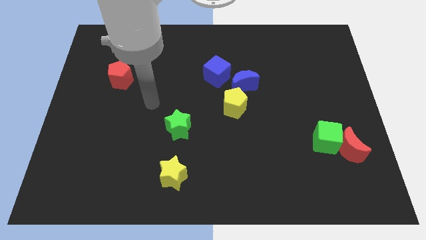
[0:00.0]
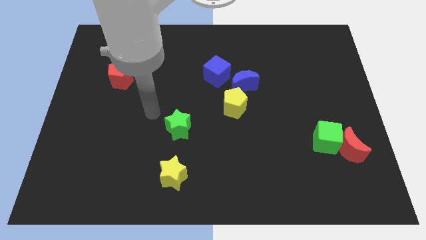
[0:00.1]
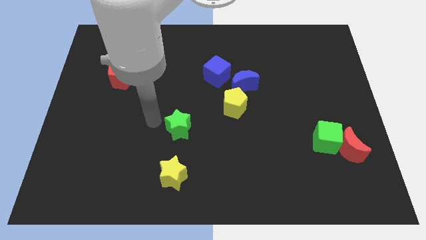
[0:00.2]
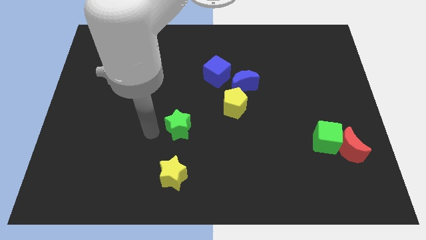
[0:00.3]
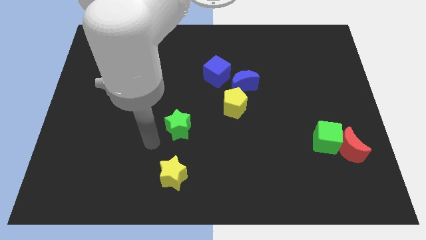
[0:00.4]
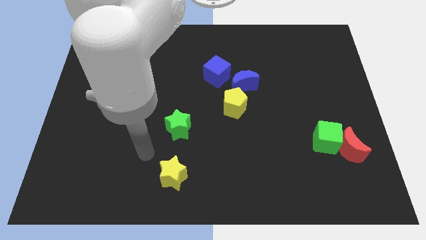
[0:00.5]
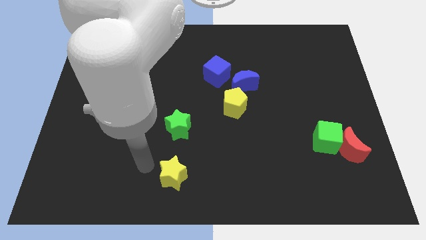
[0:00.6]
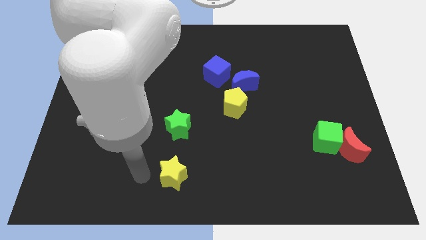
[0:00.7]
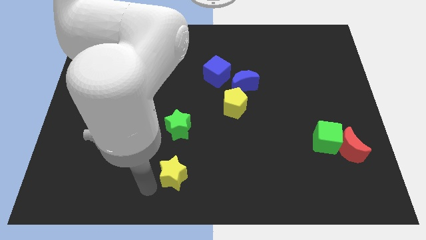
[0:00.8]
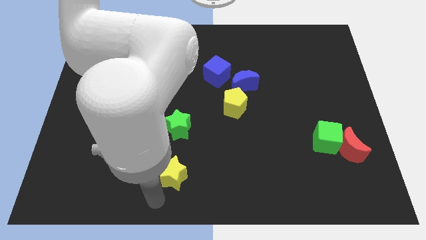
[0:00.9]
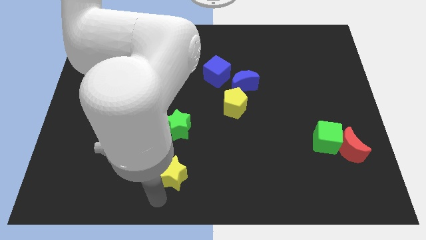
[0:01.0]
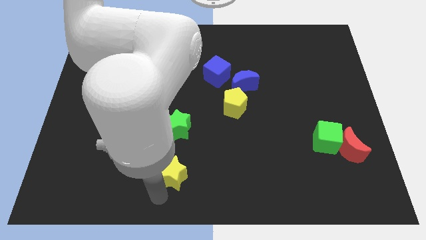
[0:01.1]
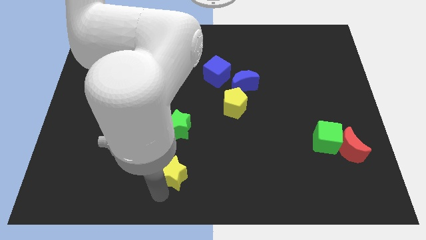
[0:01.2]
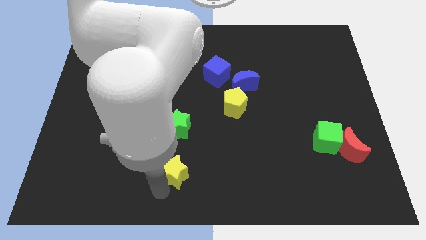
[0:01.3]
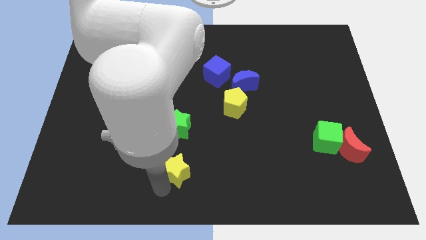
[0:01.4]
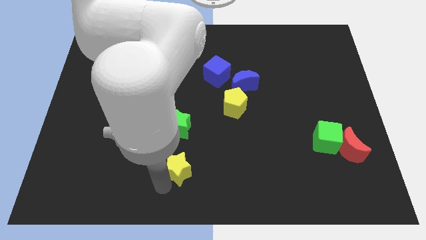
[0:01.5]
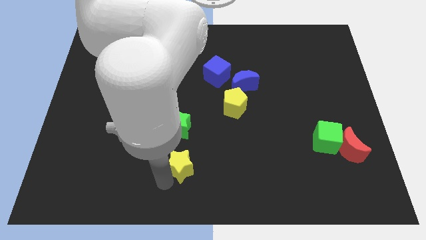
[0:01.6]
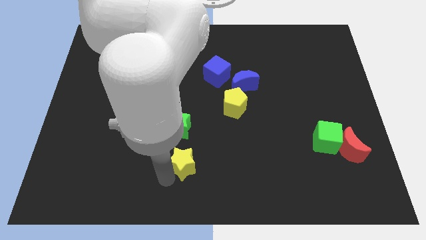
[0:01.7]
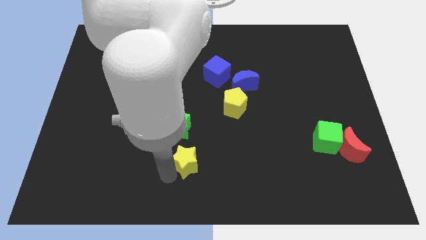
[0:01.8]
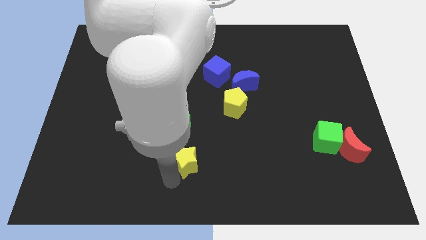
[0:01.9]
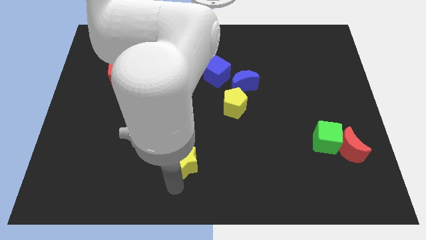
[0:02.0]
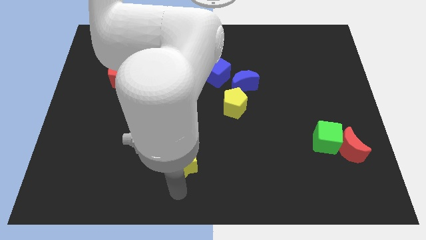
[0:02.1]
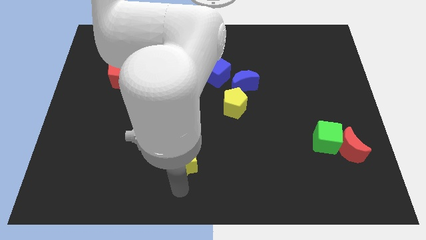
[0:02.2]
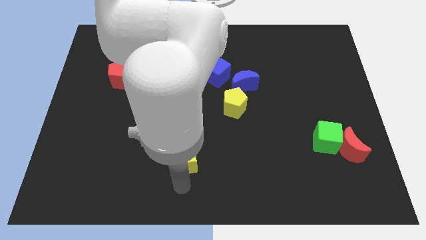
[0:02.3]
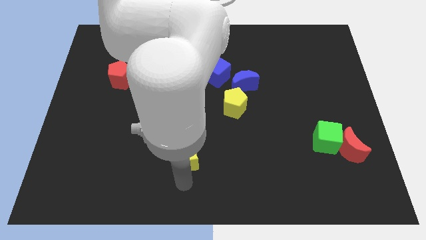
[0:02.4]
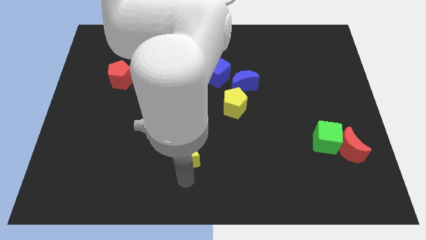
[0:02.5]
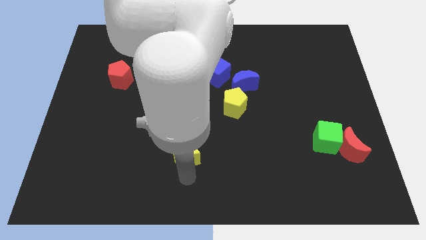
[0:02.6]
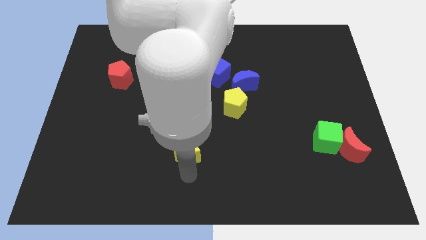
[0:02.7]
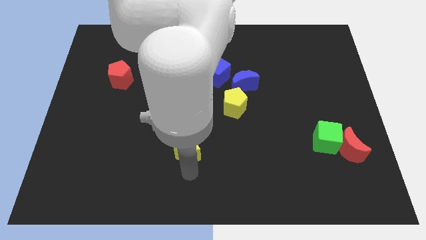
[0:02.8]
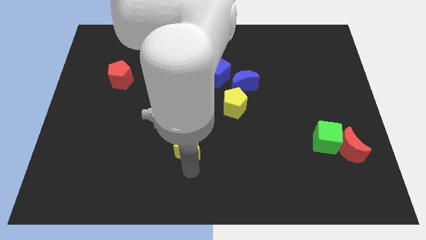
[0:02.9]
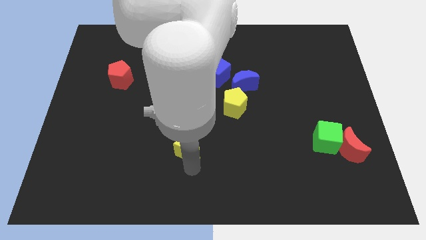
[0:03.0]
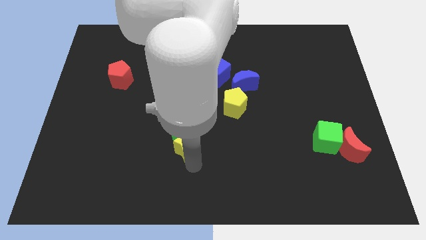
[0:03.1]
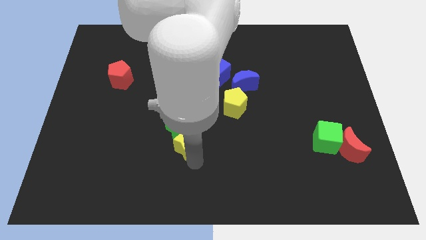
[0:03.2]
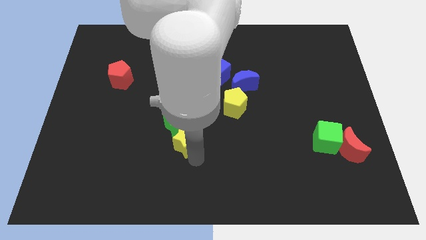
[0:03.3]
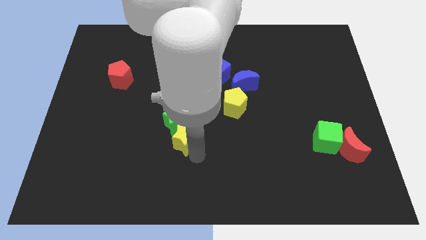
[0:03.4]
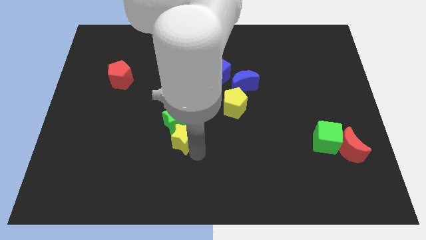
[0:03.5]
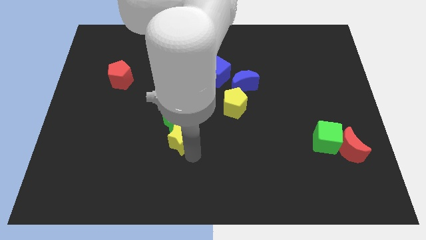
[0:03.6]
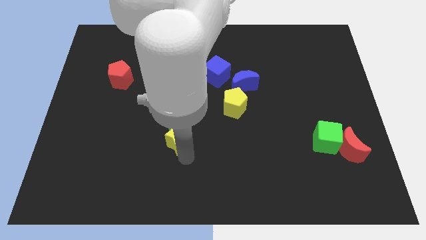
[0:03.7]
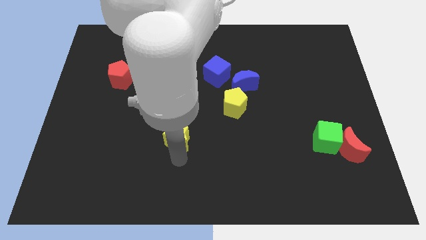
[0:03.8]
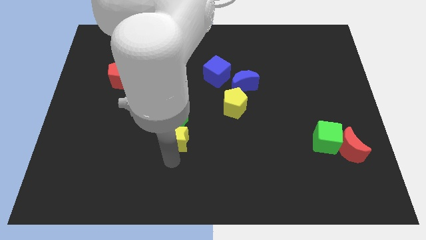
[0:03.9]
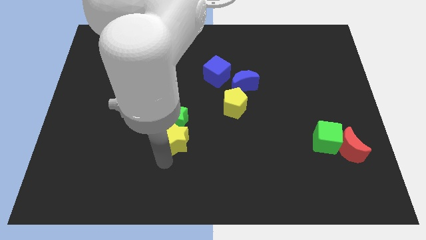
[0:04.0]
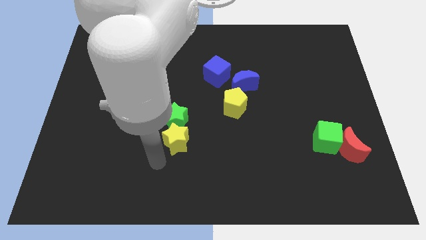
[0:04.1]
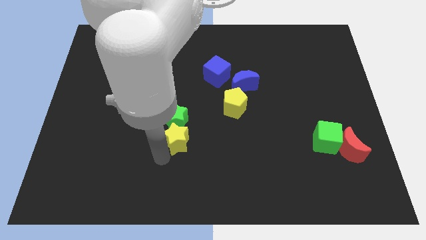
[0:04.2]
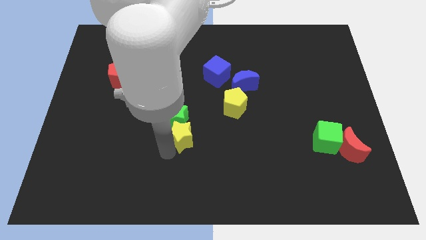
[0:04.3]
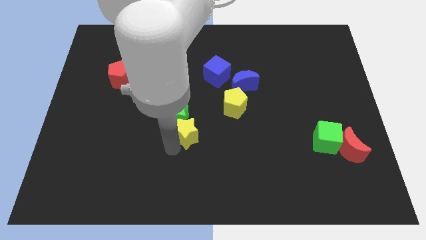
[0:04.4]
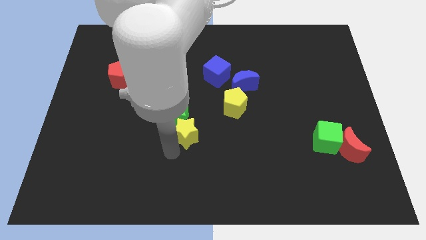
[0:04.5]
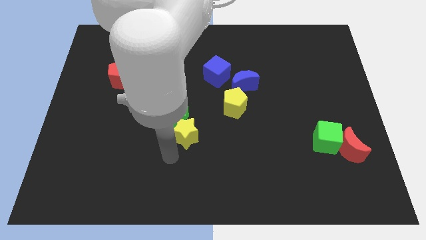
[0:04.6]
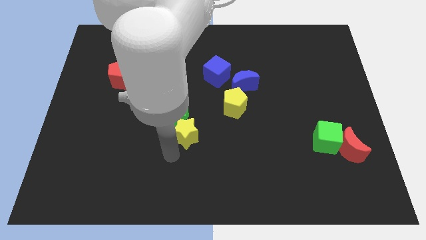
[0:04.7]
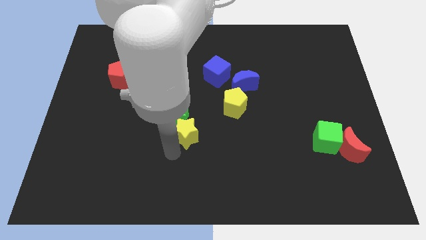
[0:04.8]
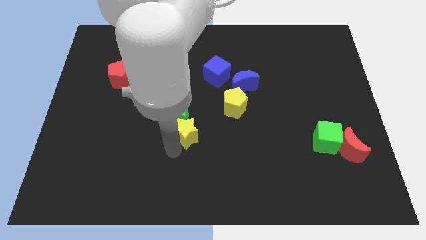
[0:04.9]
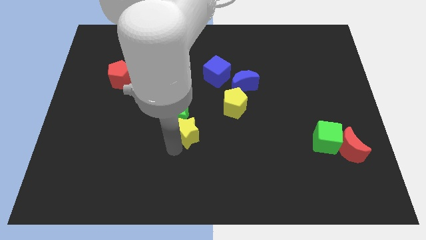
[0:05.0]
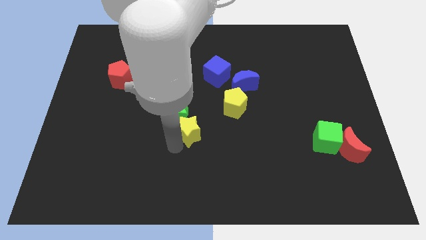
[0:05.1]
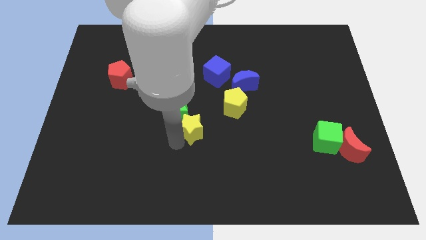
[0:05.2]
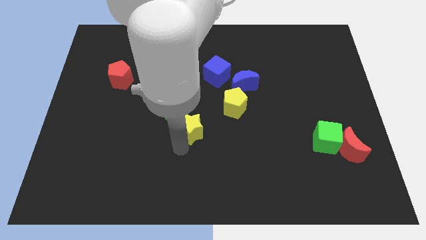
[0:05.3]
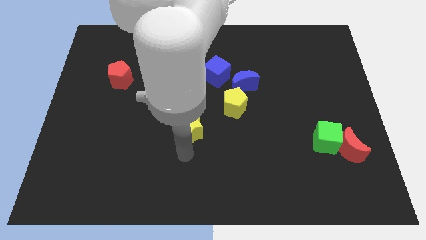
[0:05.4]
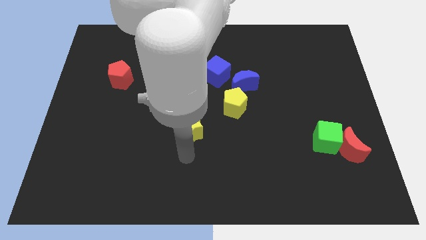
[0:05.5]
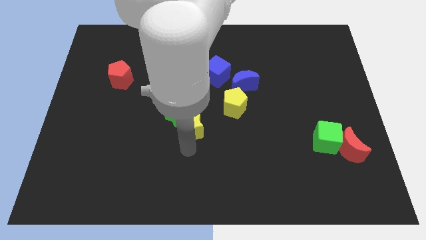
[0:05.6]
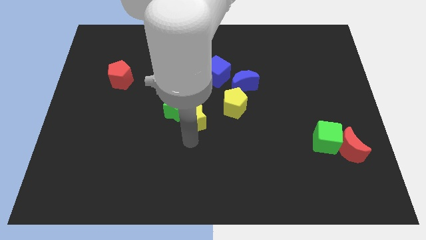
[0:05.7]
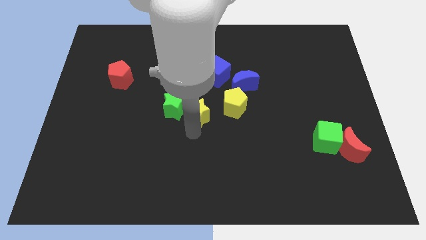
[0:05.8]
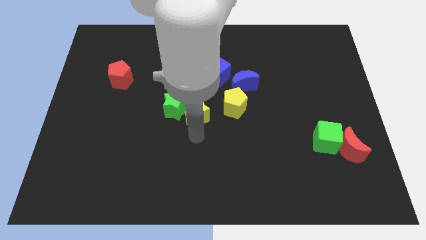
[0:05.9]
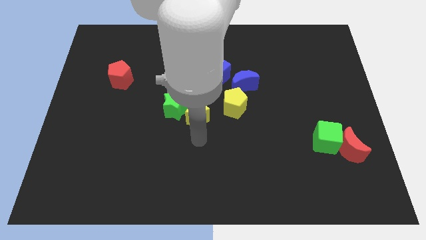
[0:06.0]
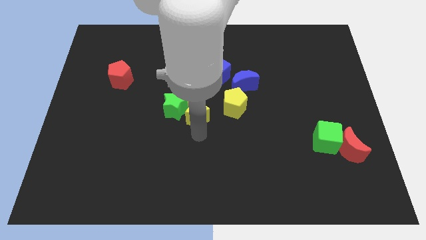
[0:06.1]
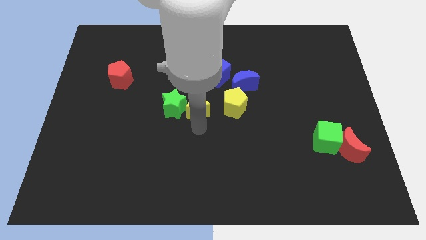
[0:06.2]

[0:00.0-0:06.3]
push the yellow star to the top right side of the green star

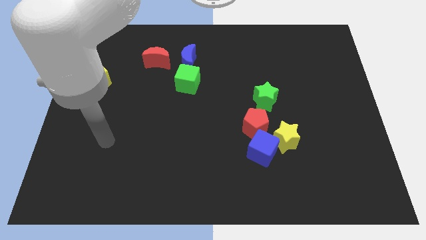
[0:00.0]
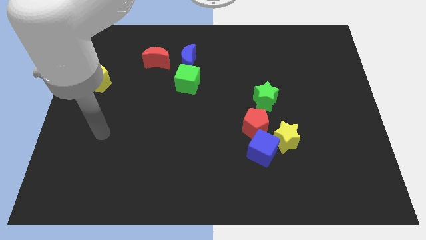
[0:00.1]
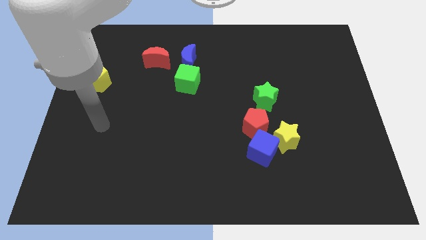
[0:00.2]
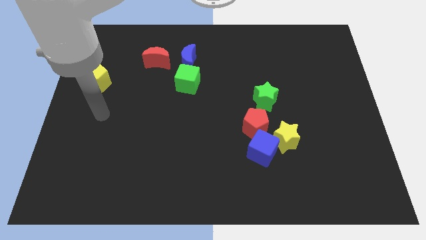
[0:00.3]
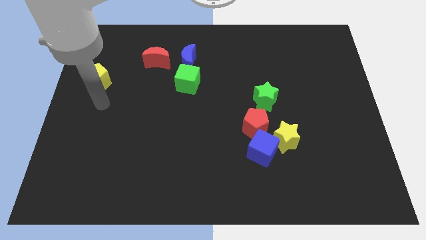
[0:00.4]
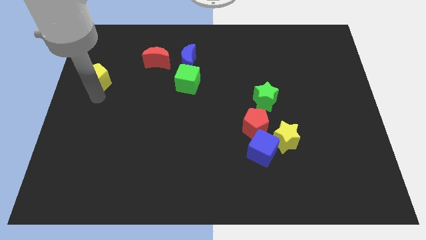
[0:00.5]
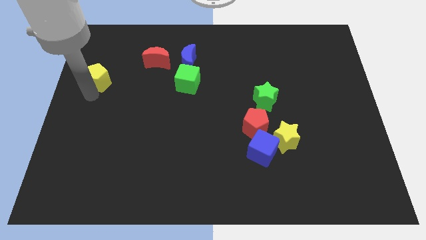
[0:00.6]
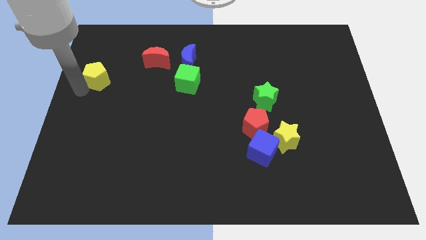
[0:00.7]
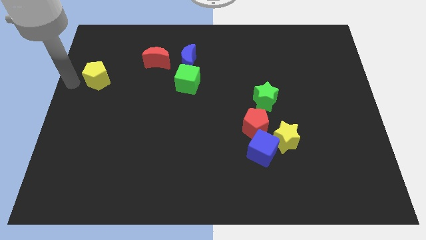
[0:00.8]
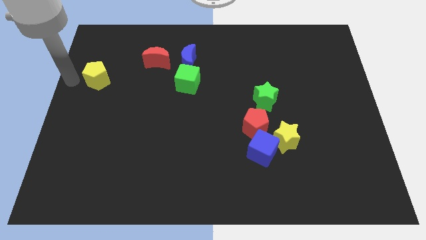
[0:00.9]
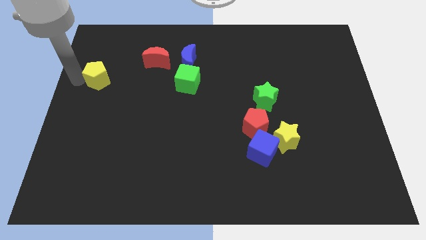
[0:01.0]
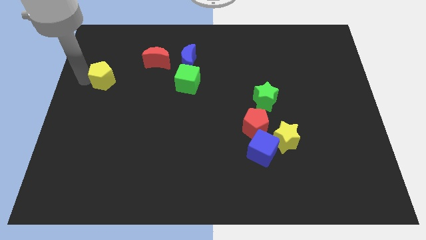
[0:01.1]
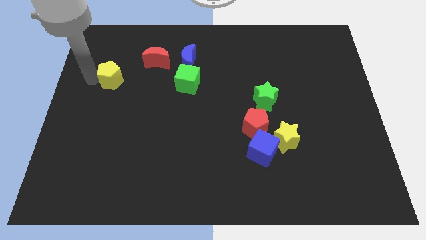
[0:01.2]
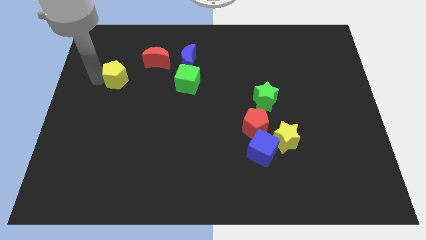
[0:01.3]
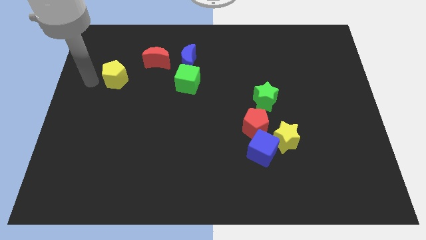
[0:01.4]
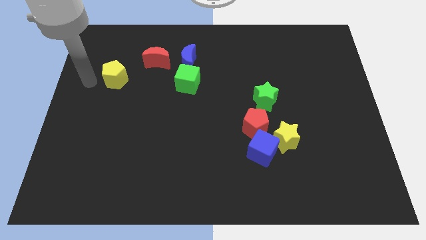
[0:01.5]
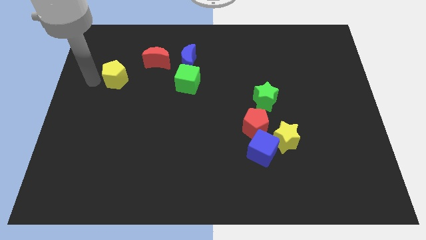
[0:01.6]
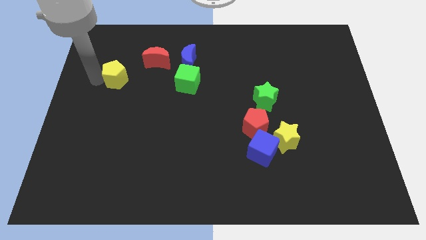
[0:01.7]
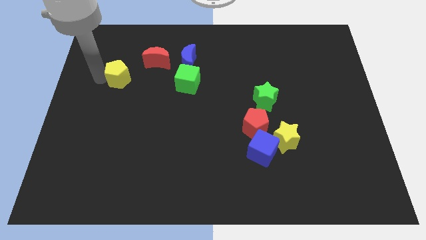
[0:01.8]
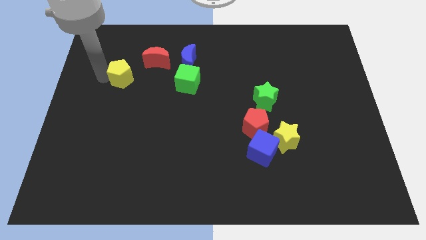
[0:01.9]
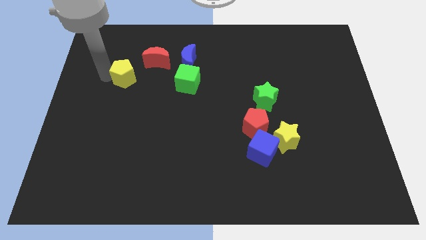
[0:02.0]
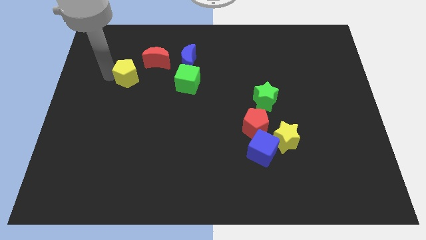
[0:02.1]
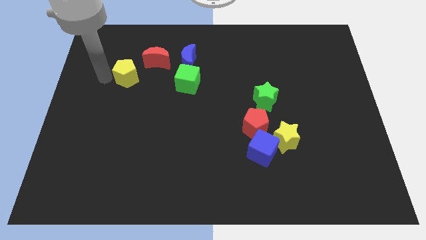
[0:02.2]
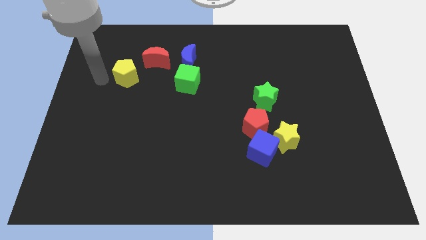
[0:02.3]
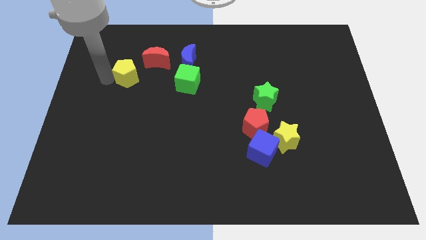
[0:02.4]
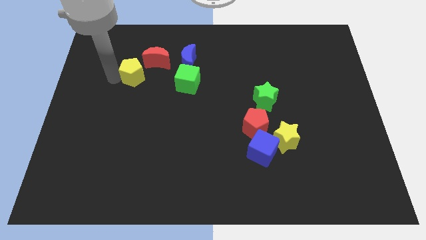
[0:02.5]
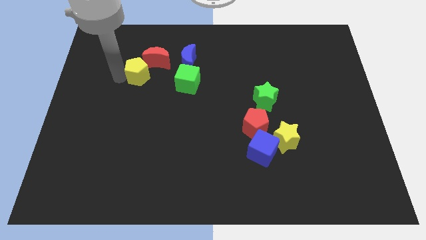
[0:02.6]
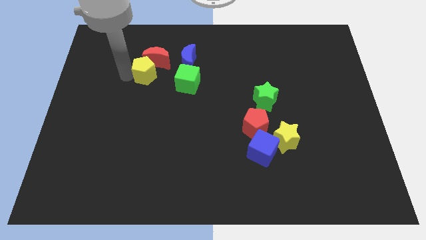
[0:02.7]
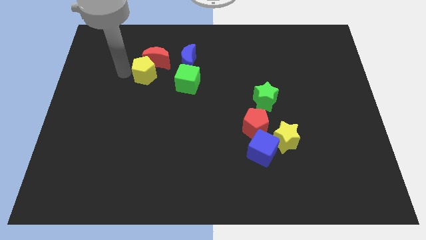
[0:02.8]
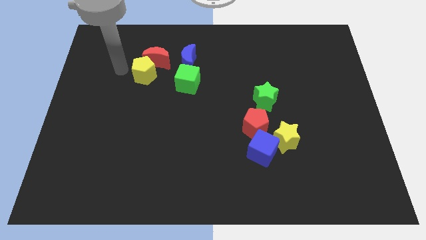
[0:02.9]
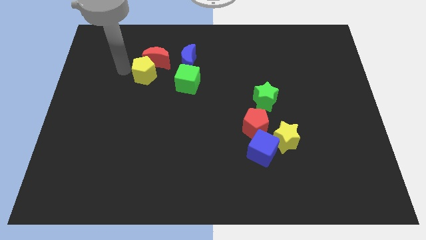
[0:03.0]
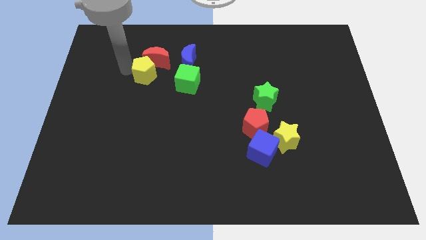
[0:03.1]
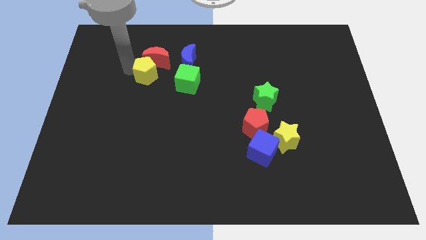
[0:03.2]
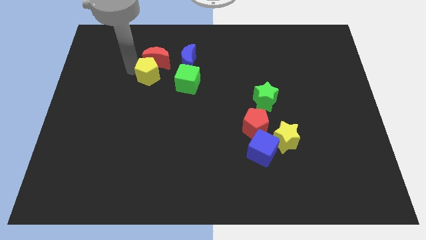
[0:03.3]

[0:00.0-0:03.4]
put the yellow pentagon to the bottom left of the blue moon
